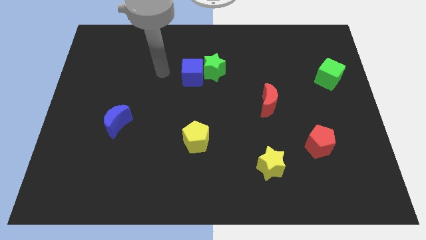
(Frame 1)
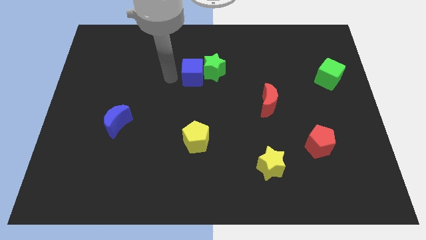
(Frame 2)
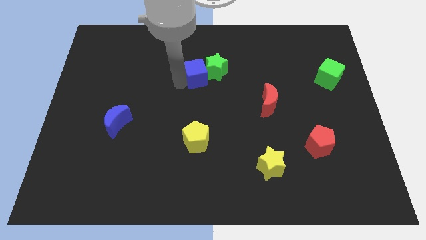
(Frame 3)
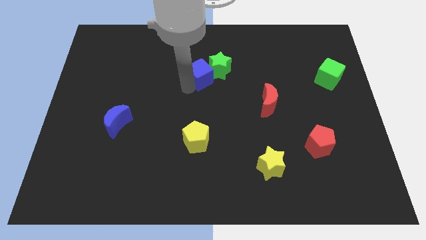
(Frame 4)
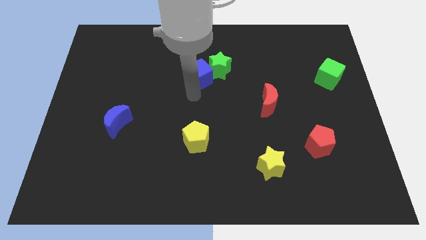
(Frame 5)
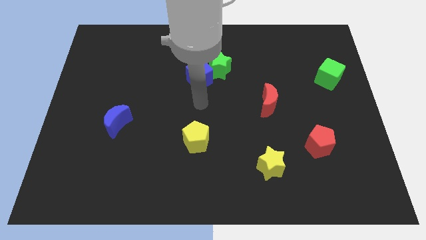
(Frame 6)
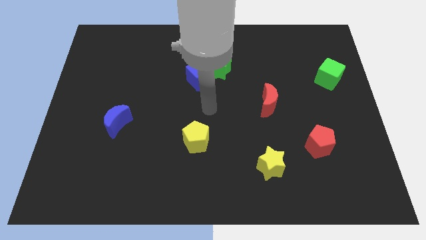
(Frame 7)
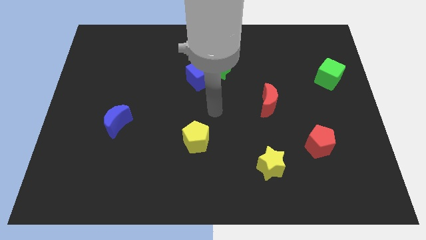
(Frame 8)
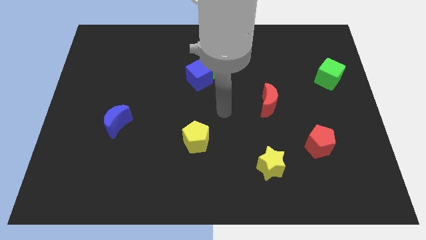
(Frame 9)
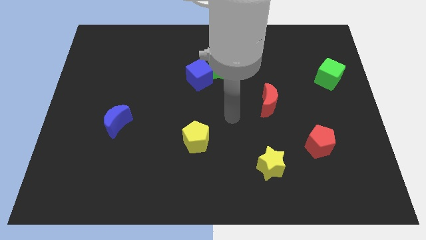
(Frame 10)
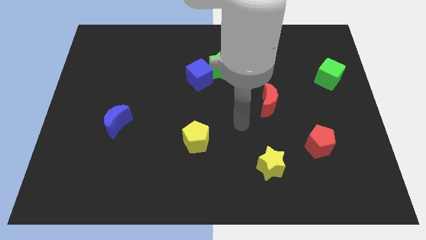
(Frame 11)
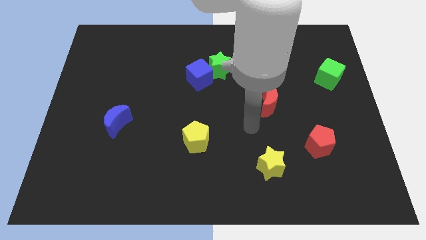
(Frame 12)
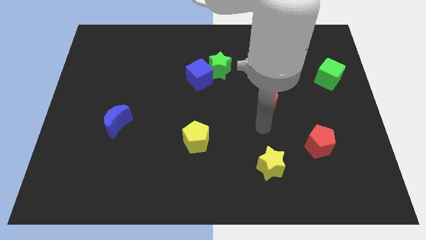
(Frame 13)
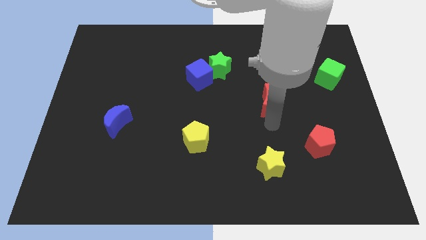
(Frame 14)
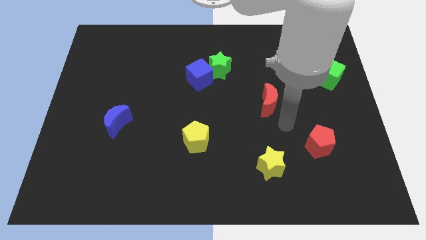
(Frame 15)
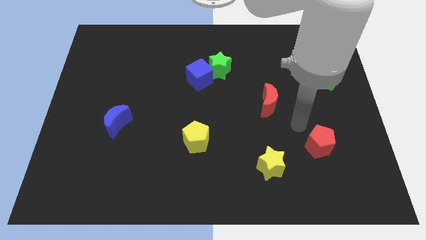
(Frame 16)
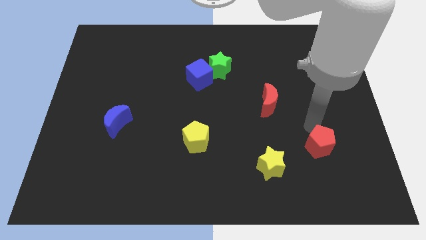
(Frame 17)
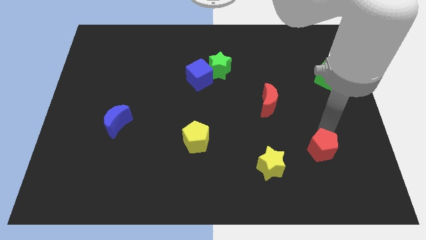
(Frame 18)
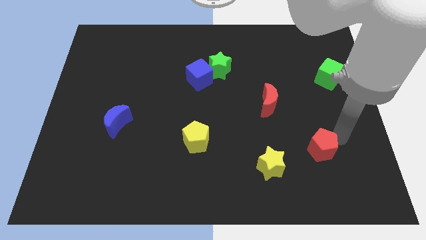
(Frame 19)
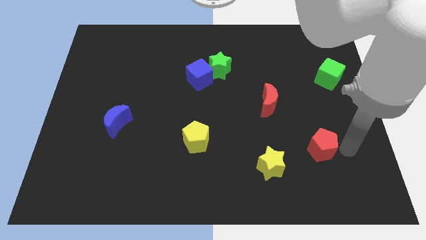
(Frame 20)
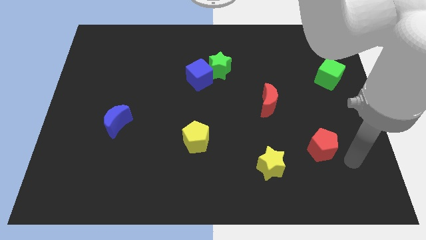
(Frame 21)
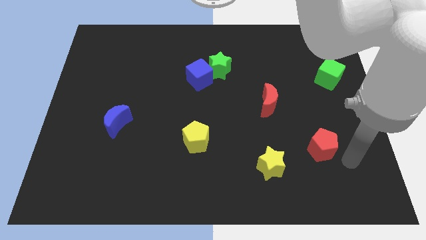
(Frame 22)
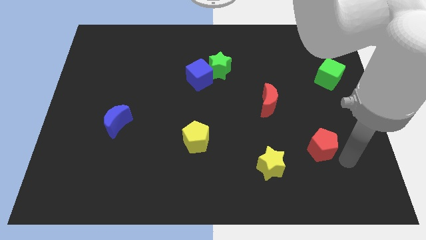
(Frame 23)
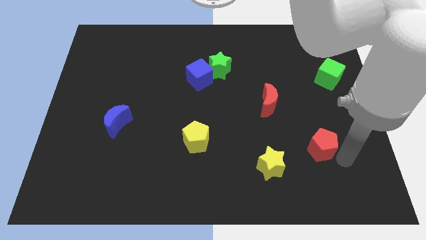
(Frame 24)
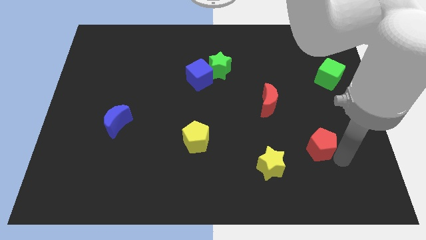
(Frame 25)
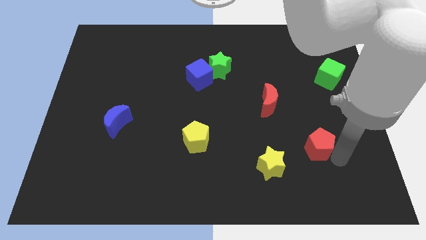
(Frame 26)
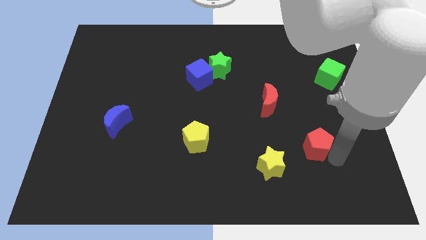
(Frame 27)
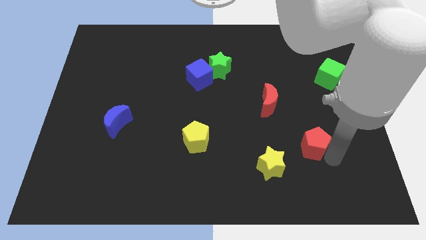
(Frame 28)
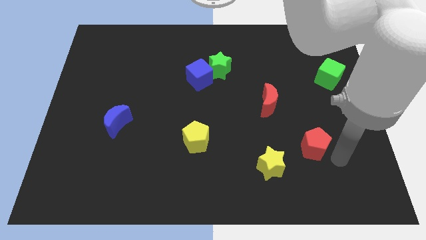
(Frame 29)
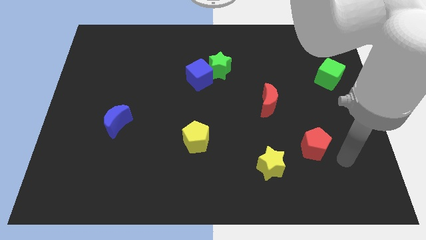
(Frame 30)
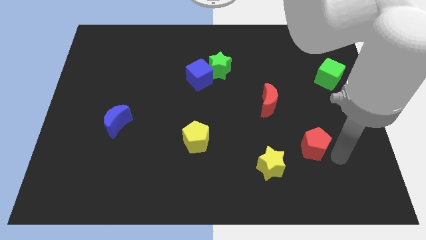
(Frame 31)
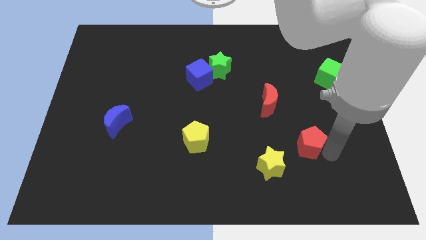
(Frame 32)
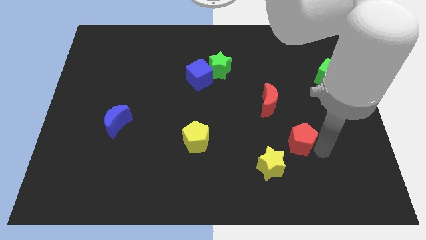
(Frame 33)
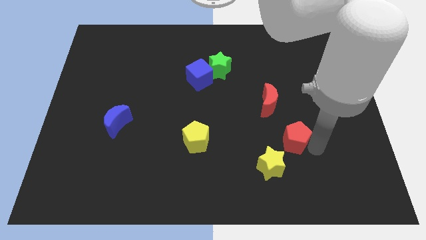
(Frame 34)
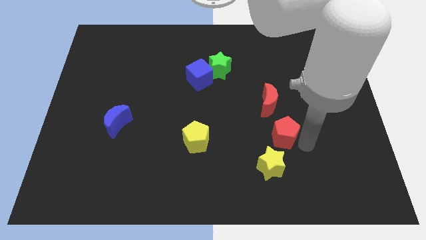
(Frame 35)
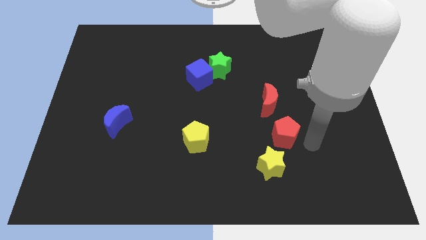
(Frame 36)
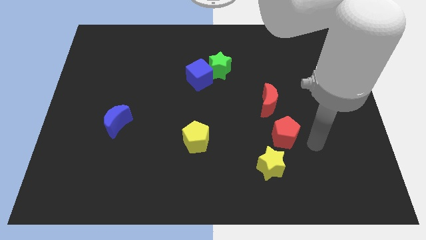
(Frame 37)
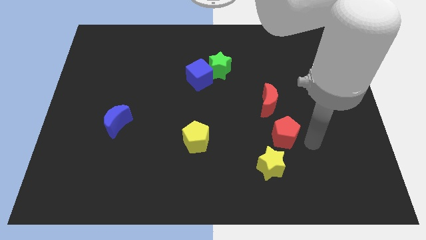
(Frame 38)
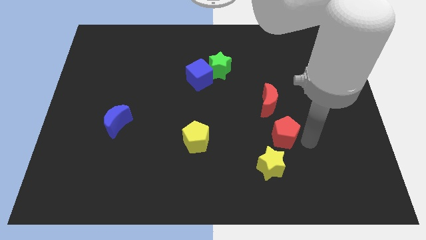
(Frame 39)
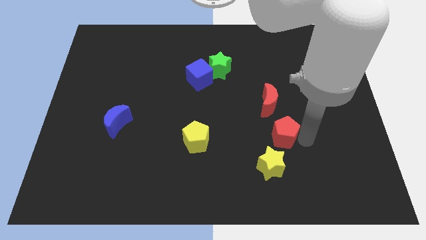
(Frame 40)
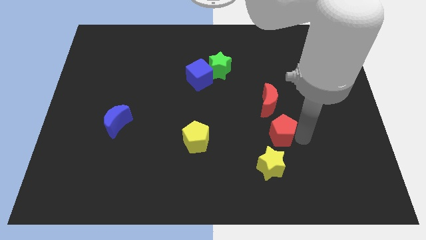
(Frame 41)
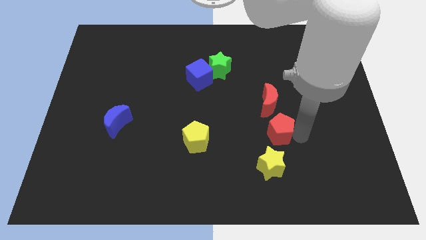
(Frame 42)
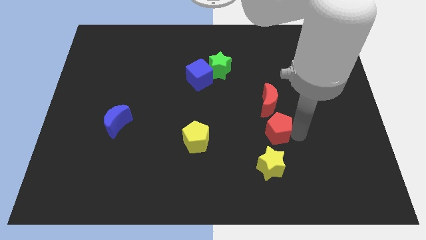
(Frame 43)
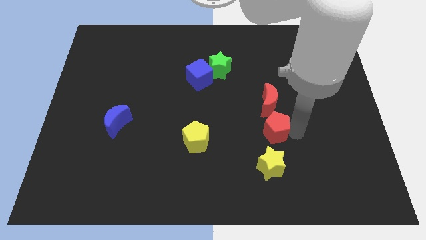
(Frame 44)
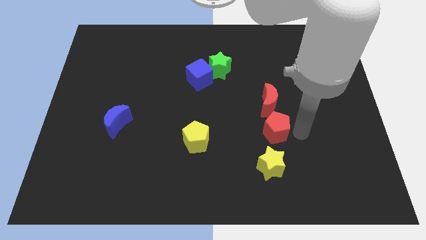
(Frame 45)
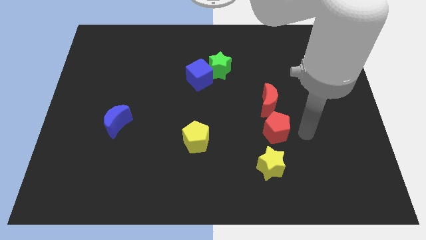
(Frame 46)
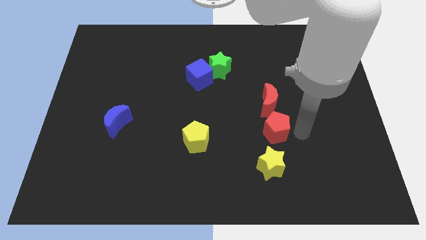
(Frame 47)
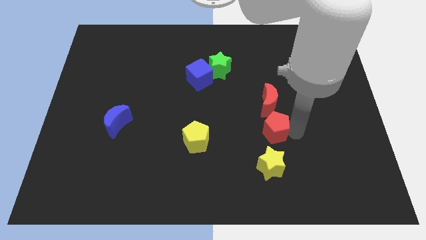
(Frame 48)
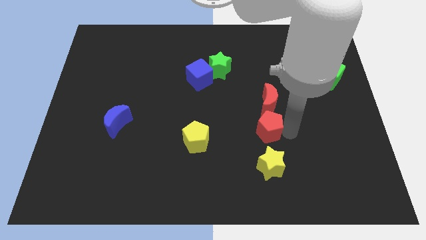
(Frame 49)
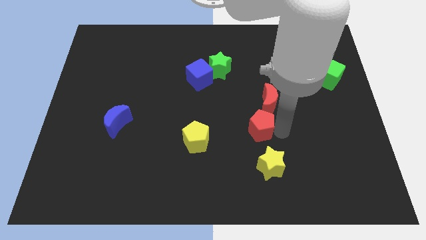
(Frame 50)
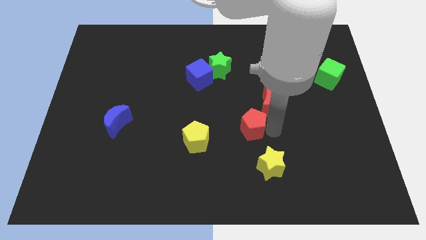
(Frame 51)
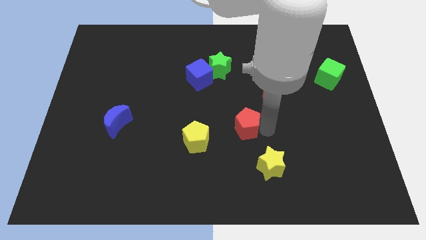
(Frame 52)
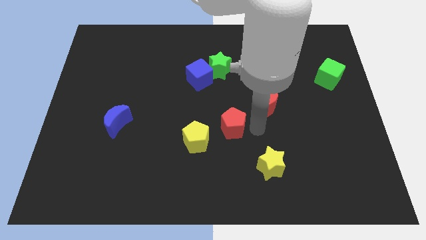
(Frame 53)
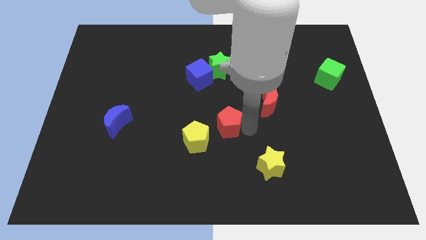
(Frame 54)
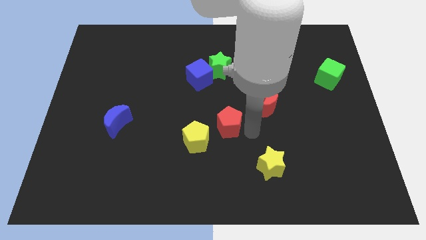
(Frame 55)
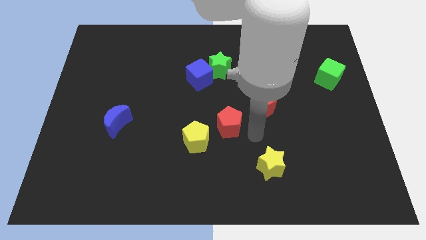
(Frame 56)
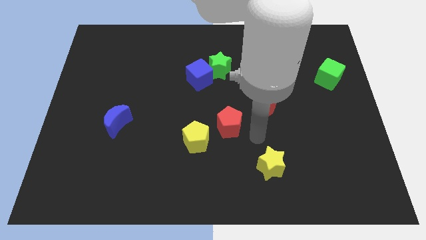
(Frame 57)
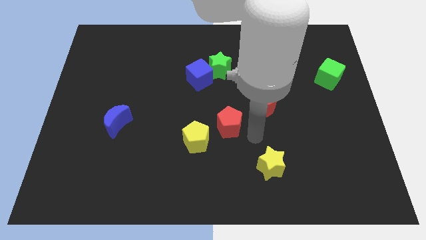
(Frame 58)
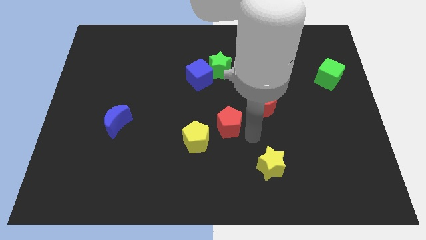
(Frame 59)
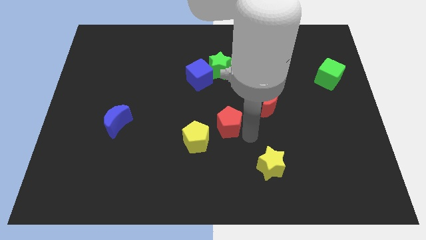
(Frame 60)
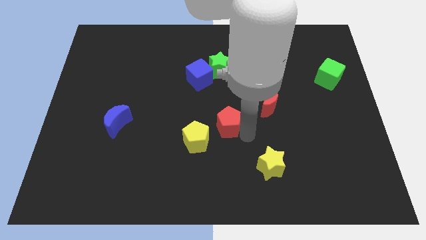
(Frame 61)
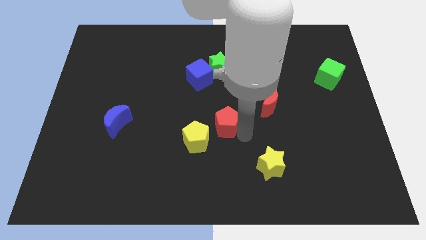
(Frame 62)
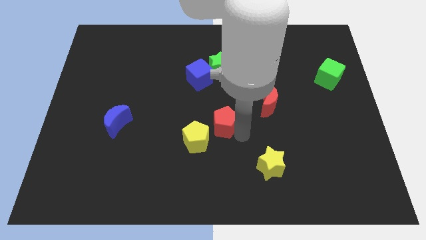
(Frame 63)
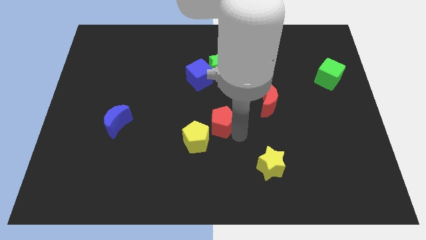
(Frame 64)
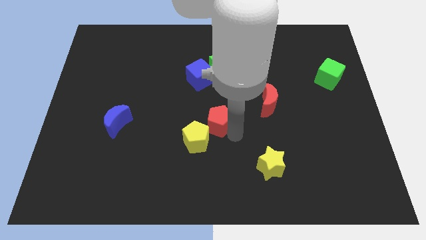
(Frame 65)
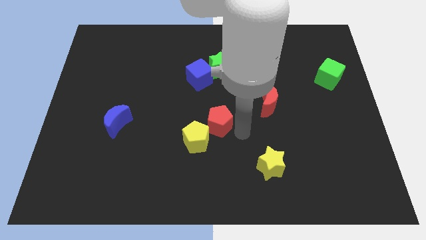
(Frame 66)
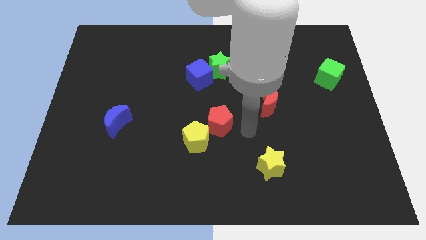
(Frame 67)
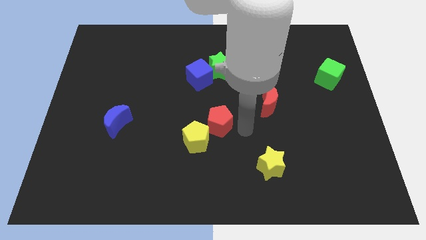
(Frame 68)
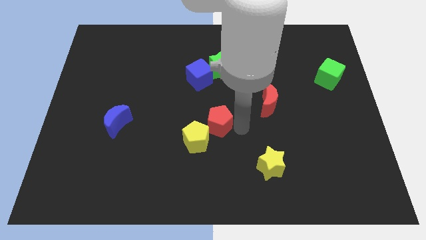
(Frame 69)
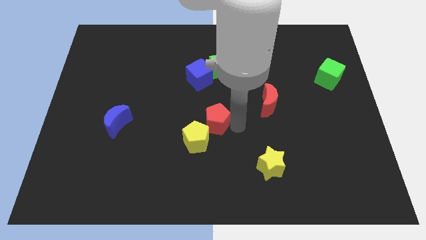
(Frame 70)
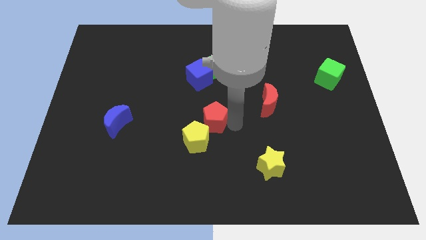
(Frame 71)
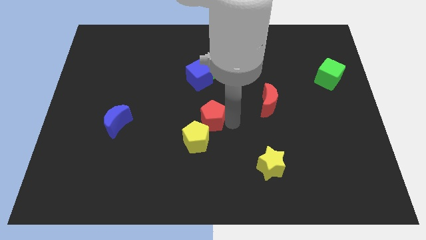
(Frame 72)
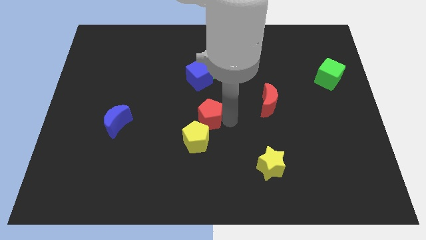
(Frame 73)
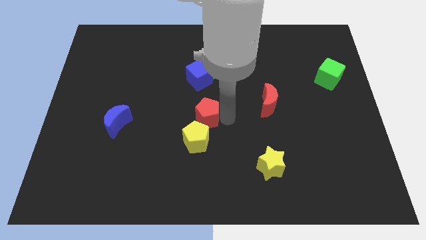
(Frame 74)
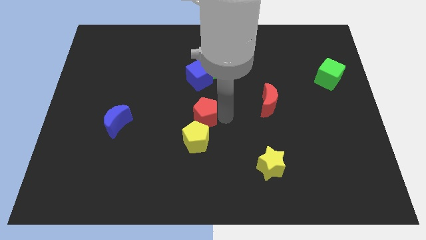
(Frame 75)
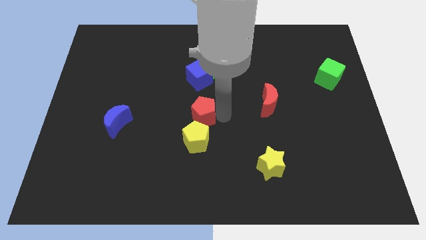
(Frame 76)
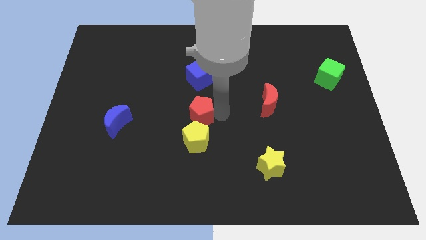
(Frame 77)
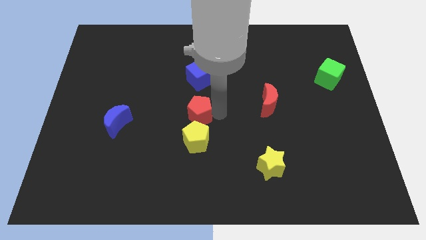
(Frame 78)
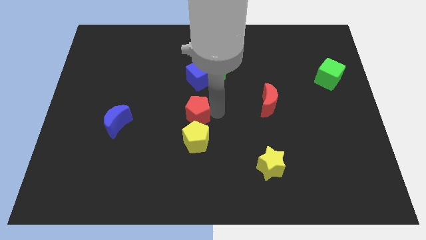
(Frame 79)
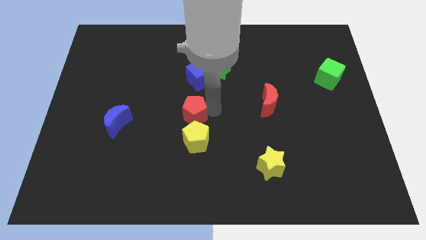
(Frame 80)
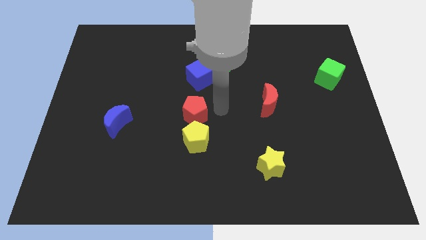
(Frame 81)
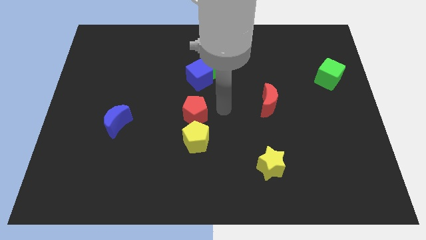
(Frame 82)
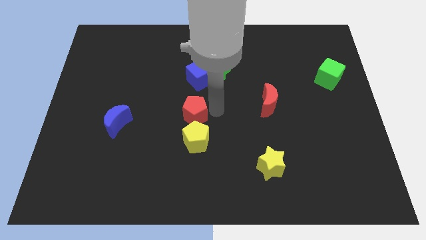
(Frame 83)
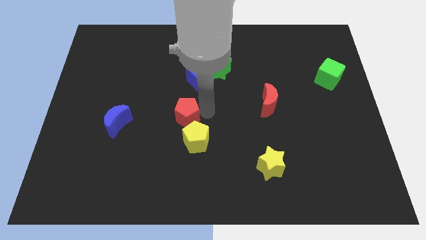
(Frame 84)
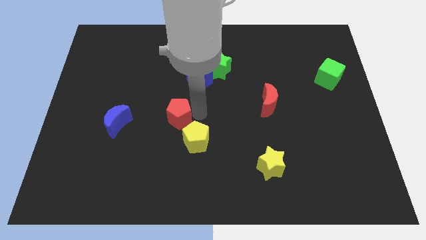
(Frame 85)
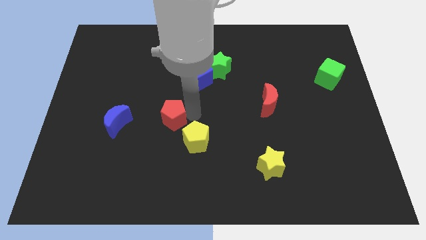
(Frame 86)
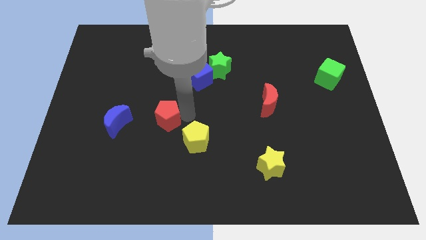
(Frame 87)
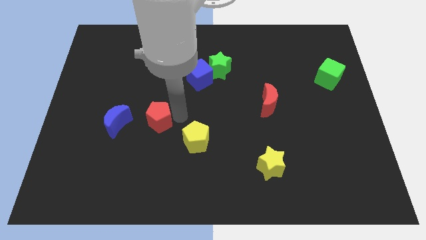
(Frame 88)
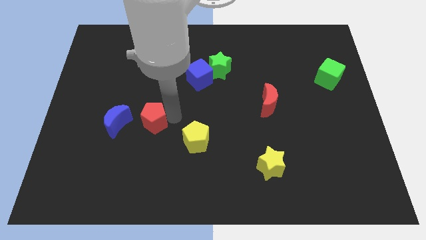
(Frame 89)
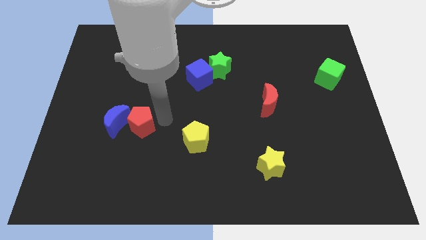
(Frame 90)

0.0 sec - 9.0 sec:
put the red pentagon next to the blue moon
